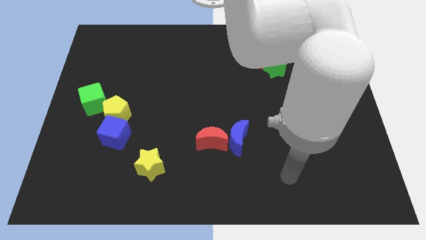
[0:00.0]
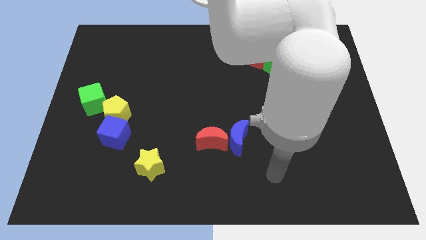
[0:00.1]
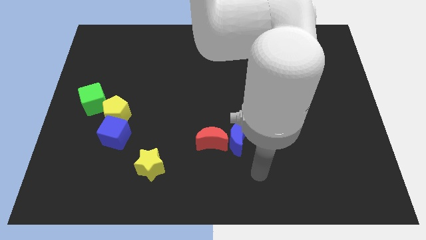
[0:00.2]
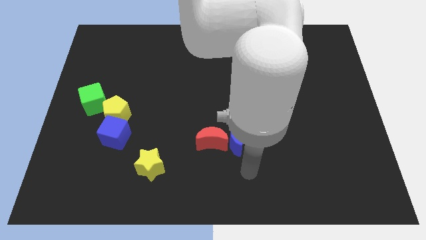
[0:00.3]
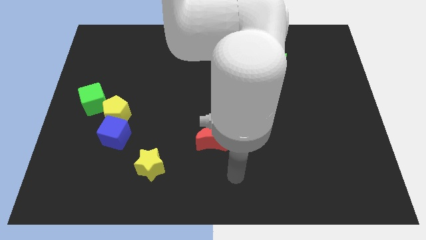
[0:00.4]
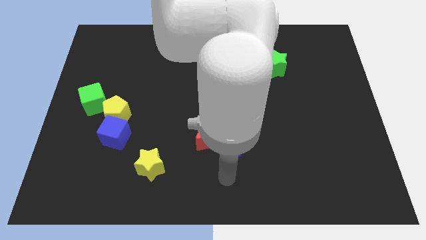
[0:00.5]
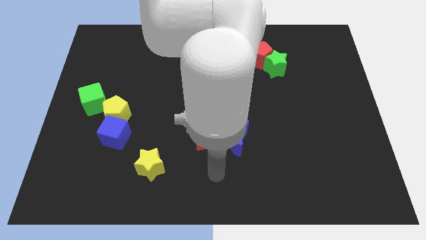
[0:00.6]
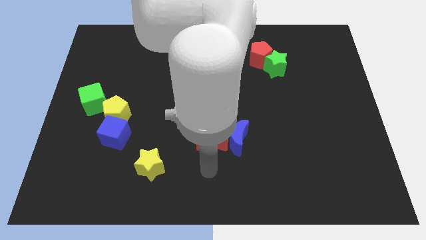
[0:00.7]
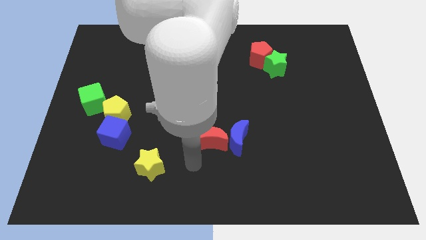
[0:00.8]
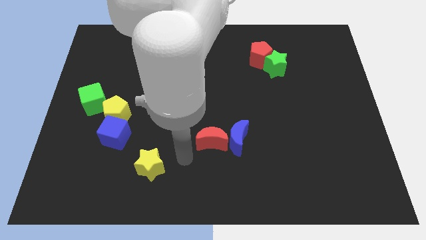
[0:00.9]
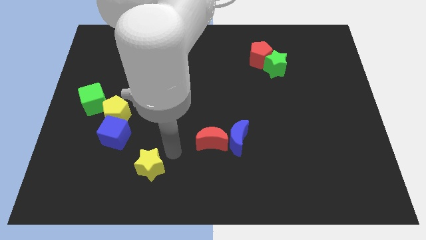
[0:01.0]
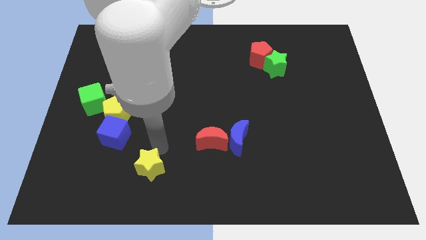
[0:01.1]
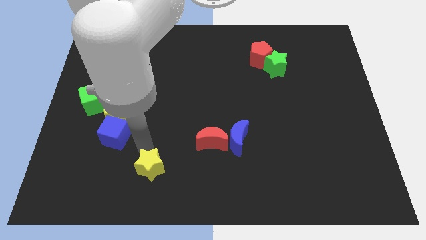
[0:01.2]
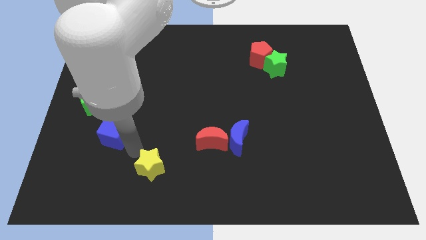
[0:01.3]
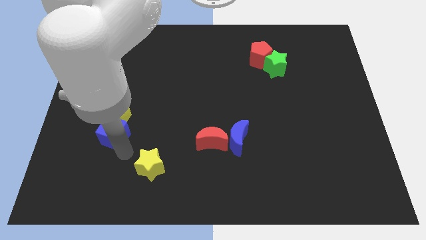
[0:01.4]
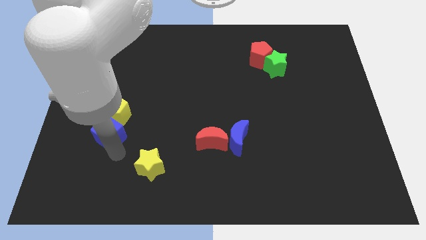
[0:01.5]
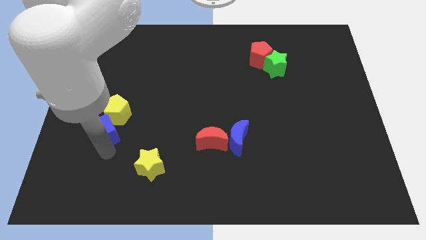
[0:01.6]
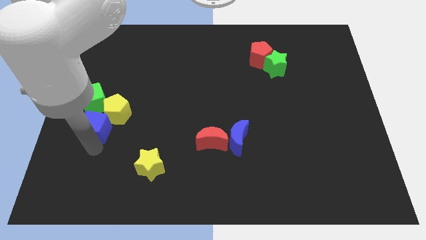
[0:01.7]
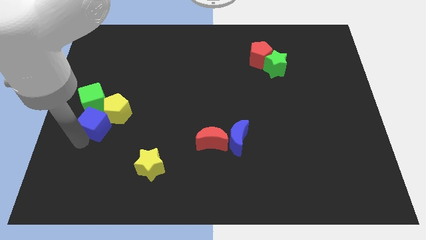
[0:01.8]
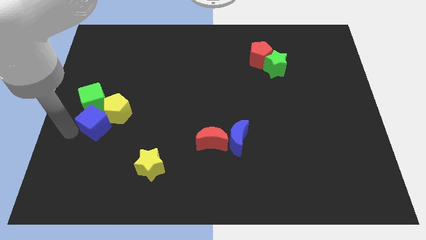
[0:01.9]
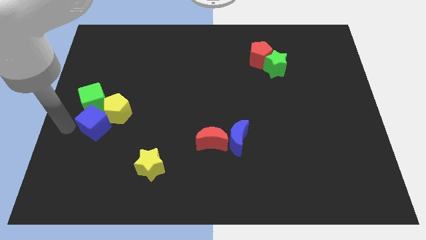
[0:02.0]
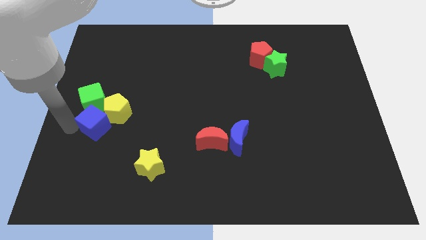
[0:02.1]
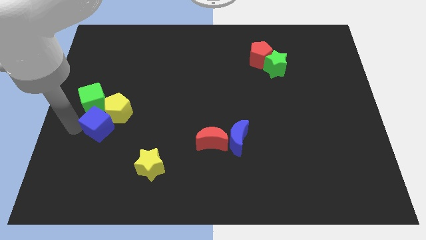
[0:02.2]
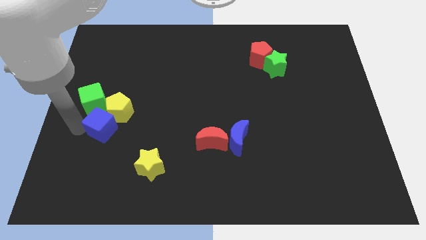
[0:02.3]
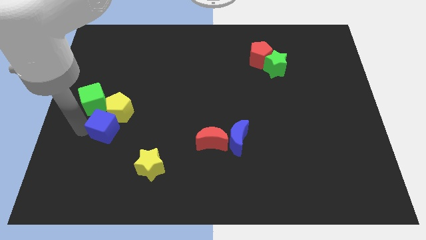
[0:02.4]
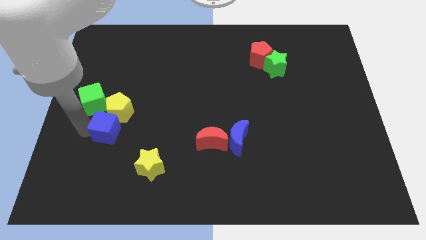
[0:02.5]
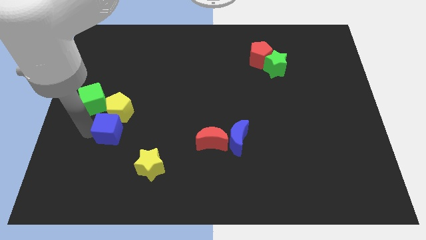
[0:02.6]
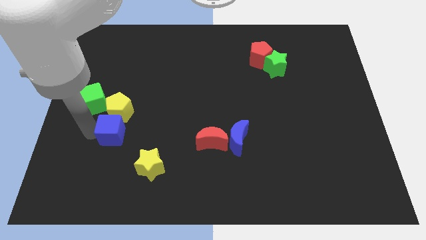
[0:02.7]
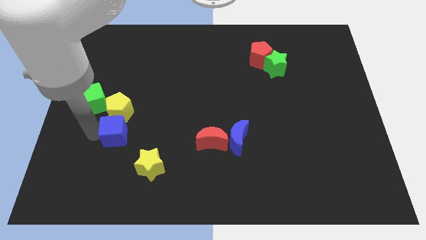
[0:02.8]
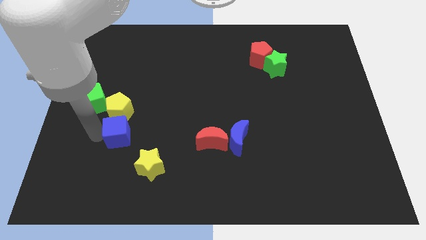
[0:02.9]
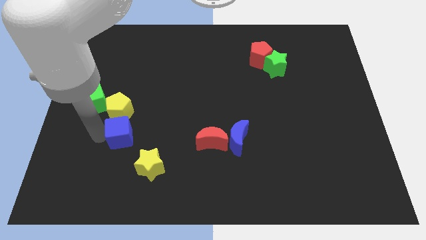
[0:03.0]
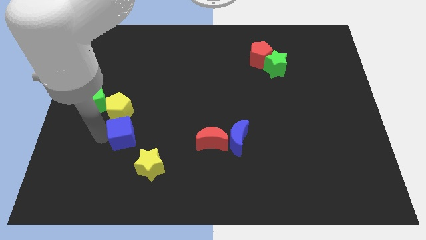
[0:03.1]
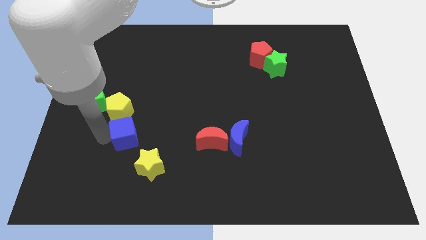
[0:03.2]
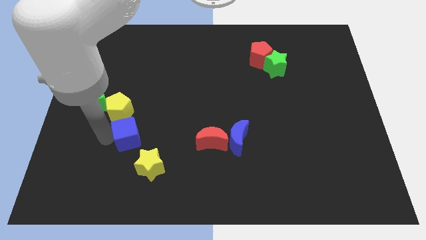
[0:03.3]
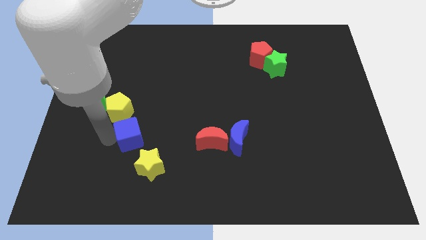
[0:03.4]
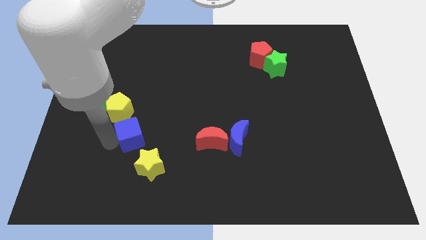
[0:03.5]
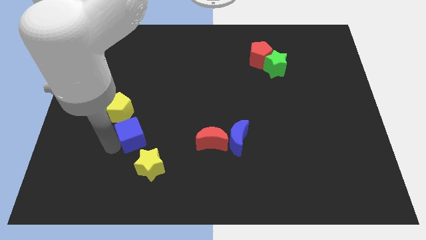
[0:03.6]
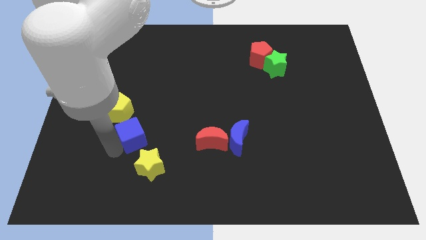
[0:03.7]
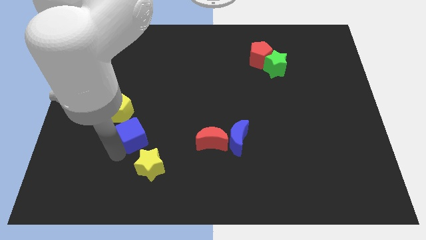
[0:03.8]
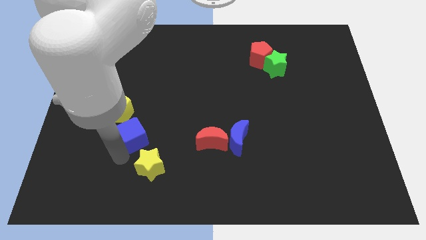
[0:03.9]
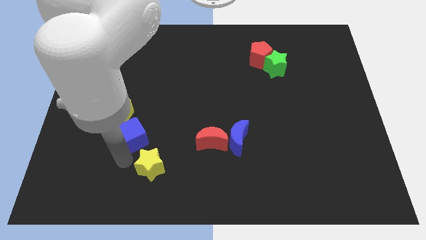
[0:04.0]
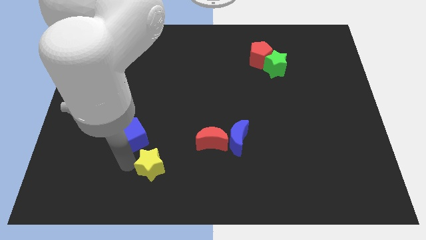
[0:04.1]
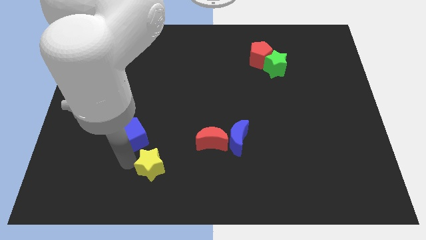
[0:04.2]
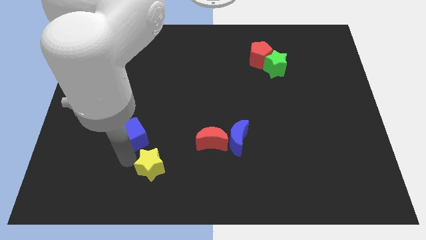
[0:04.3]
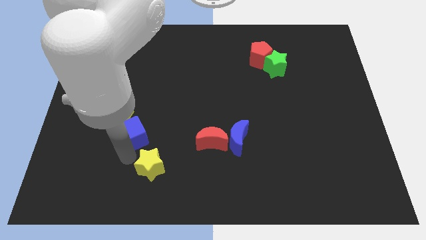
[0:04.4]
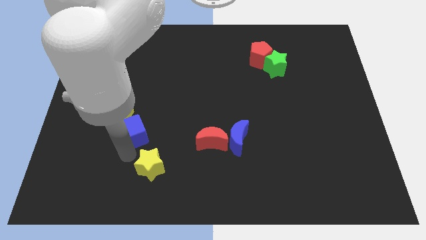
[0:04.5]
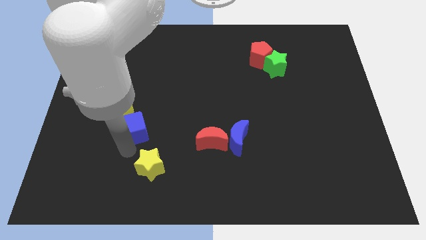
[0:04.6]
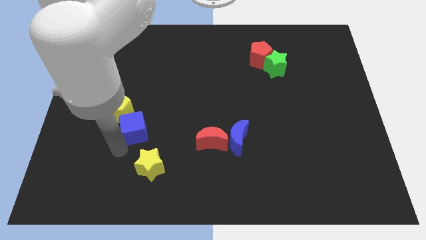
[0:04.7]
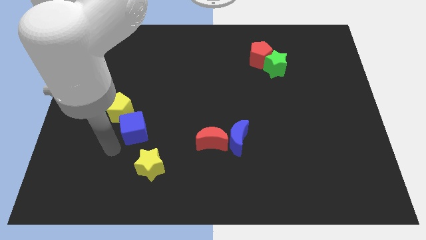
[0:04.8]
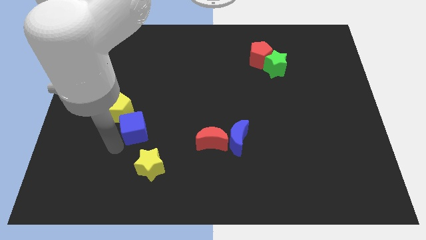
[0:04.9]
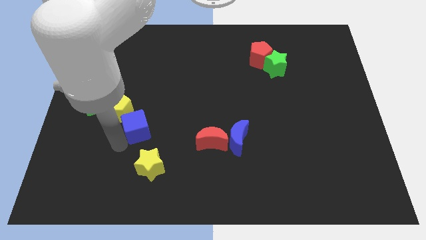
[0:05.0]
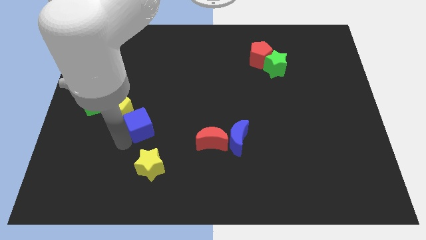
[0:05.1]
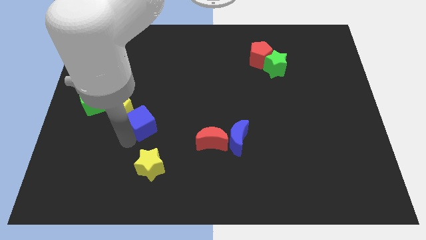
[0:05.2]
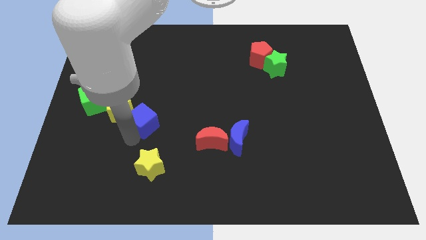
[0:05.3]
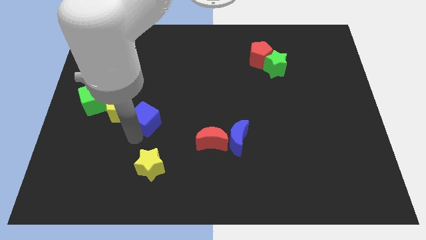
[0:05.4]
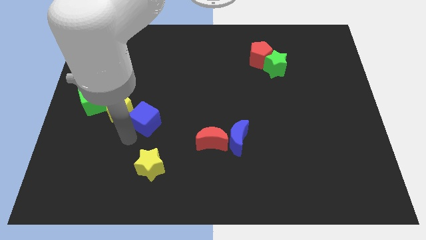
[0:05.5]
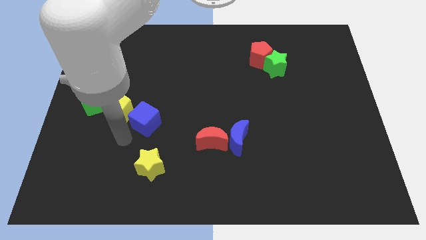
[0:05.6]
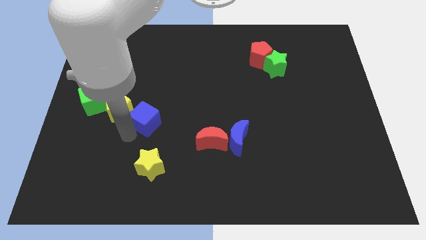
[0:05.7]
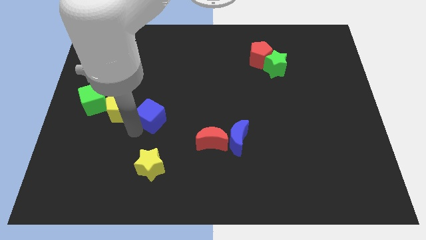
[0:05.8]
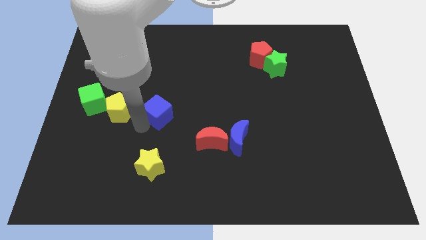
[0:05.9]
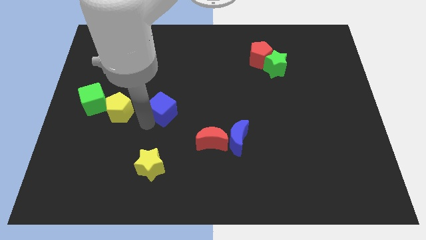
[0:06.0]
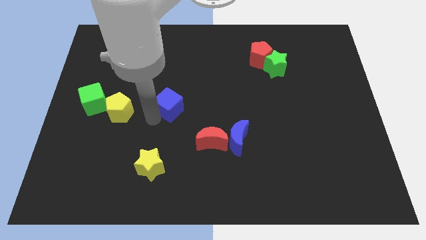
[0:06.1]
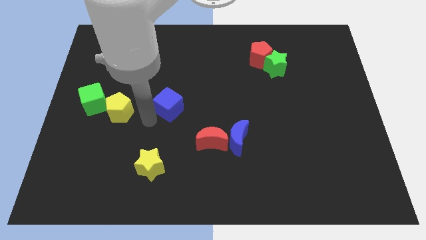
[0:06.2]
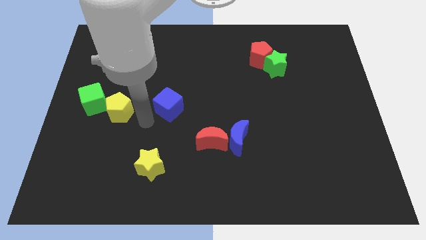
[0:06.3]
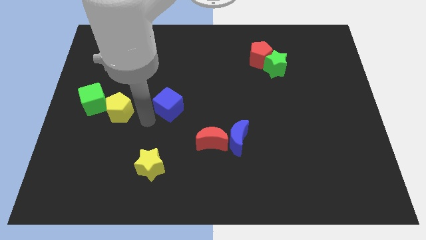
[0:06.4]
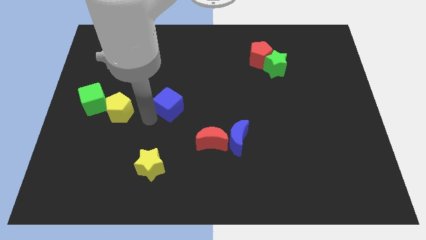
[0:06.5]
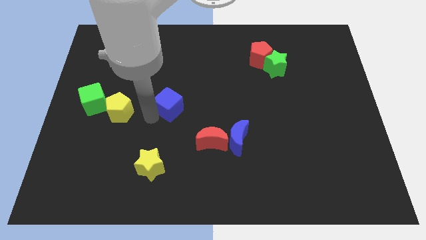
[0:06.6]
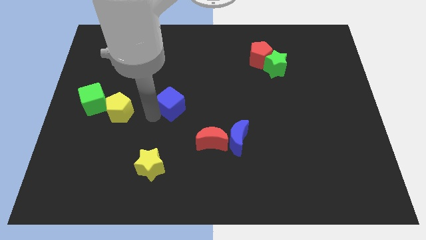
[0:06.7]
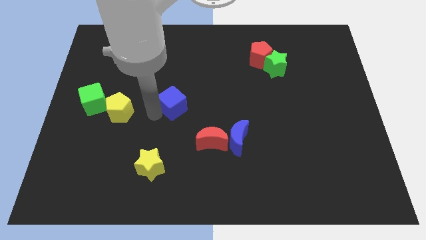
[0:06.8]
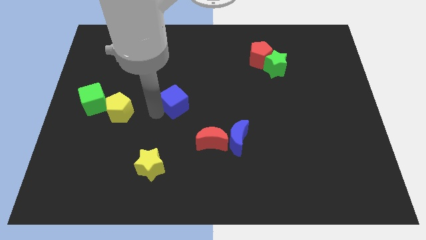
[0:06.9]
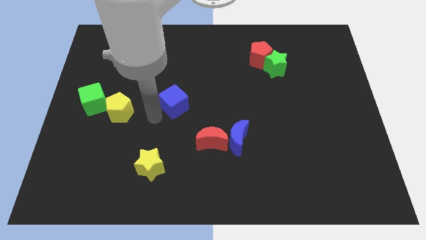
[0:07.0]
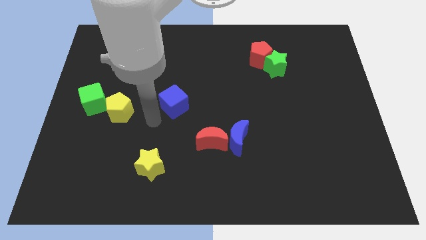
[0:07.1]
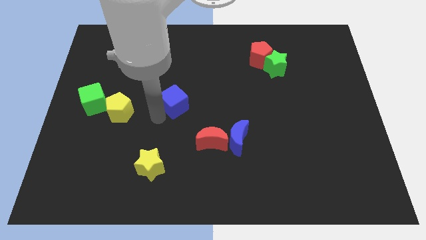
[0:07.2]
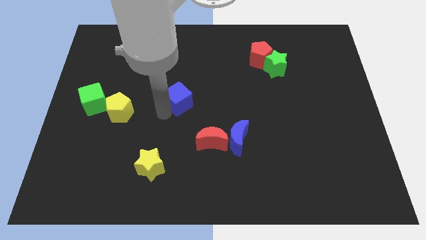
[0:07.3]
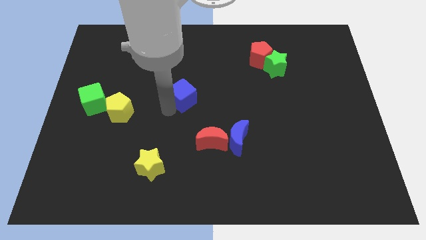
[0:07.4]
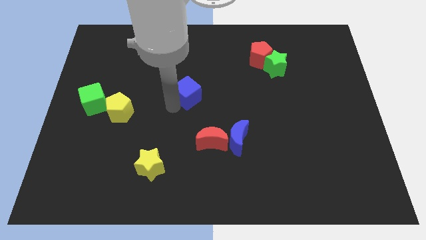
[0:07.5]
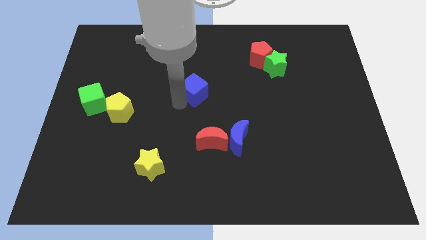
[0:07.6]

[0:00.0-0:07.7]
move the blue cube upwards and right
